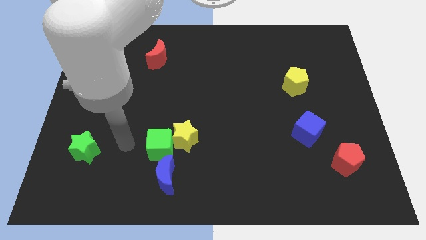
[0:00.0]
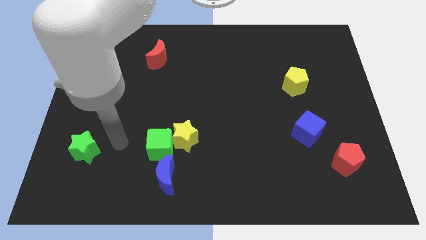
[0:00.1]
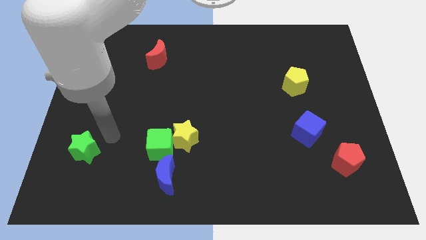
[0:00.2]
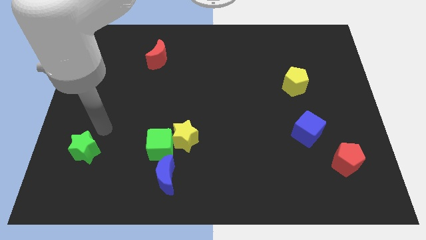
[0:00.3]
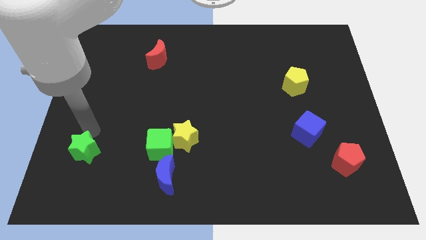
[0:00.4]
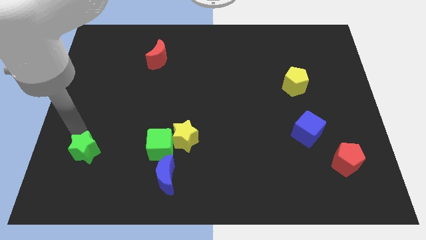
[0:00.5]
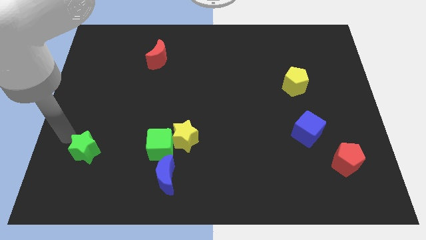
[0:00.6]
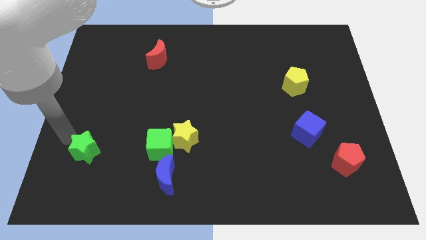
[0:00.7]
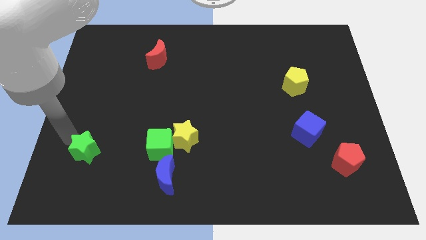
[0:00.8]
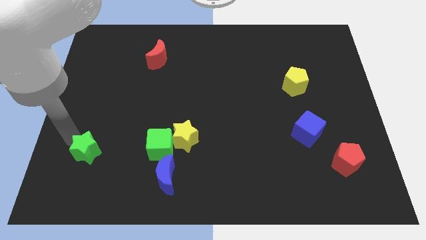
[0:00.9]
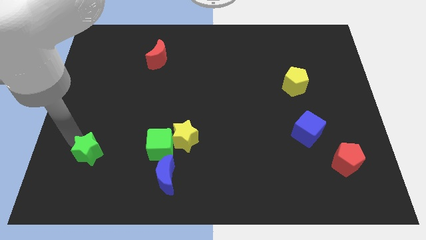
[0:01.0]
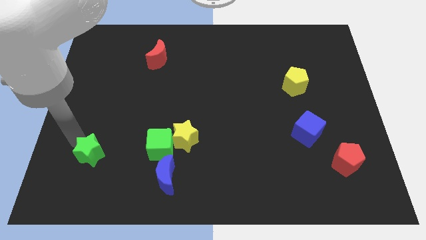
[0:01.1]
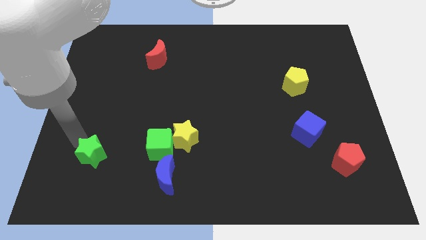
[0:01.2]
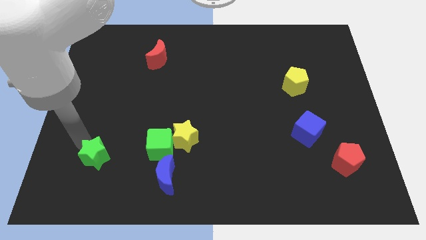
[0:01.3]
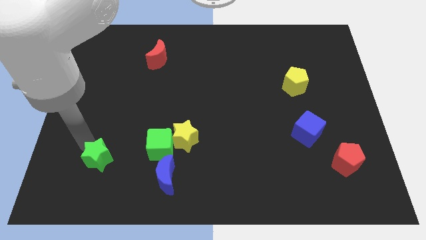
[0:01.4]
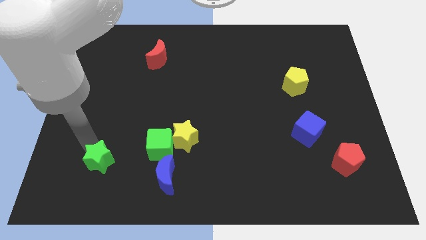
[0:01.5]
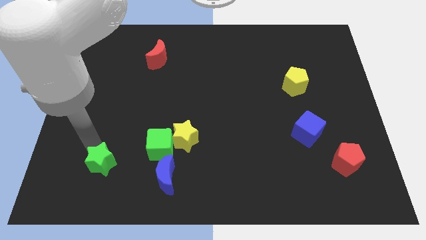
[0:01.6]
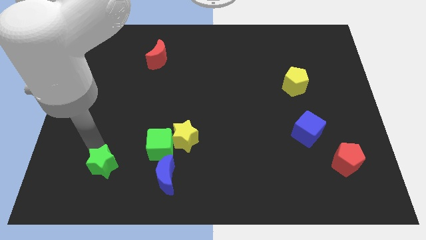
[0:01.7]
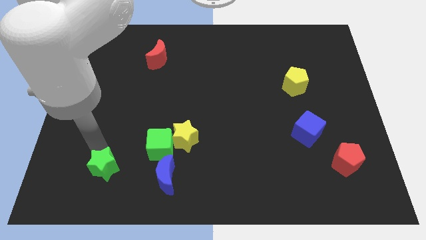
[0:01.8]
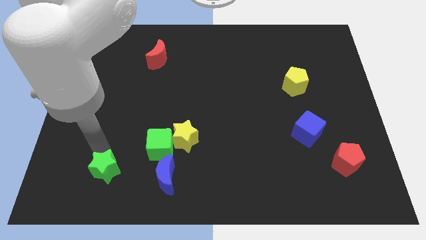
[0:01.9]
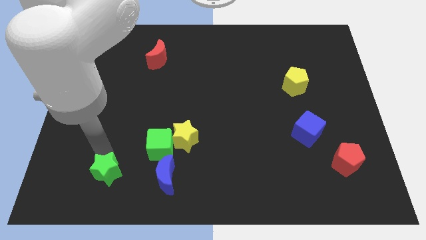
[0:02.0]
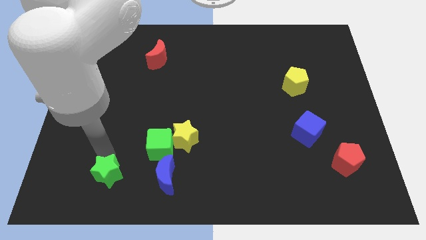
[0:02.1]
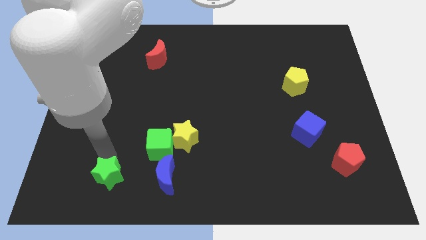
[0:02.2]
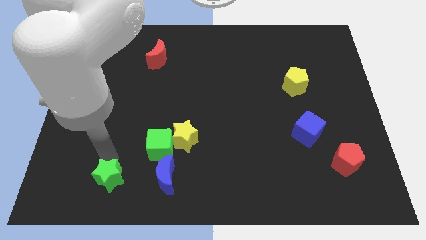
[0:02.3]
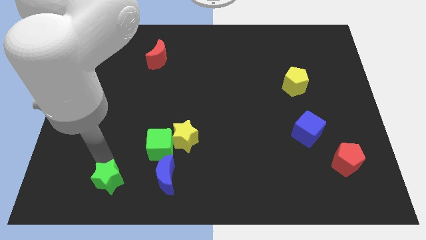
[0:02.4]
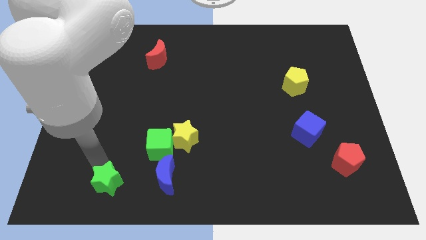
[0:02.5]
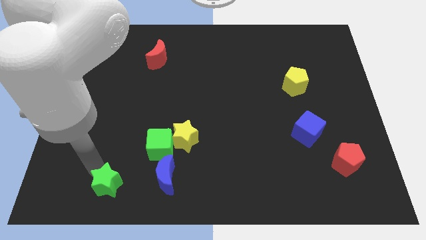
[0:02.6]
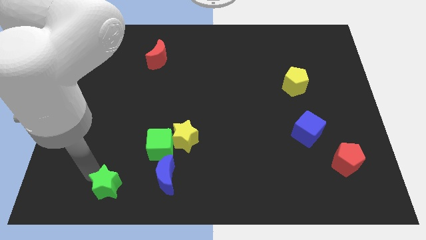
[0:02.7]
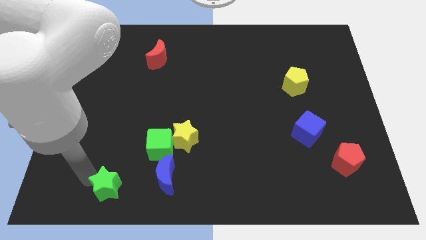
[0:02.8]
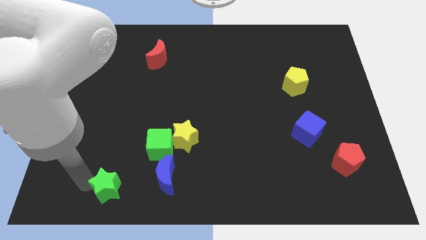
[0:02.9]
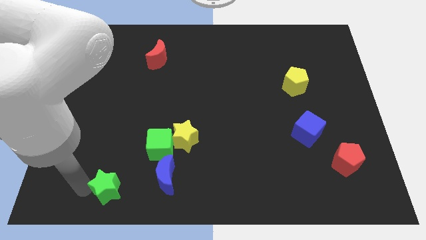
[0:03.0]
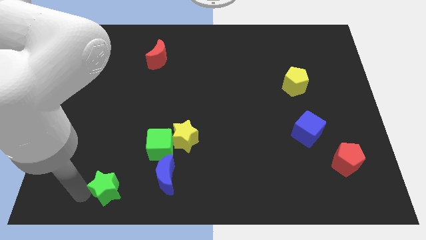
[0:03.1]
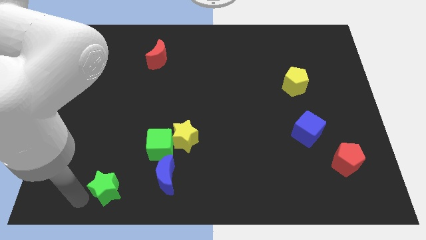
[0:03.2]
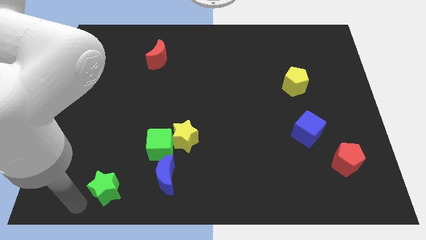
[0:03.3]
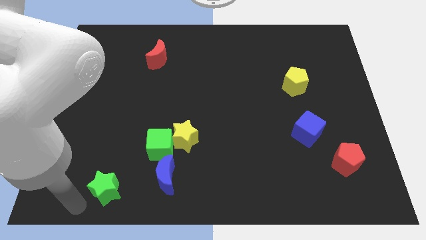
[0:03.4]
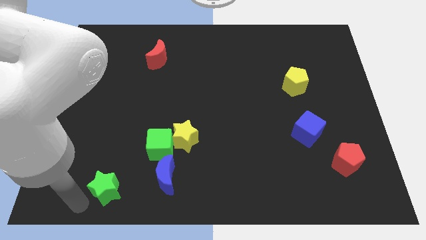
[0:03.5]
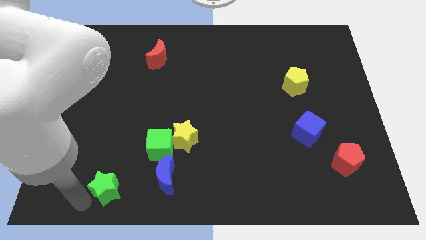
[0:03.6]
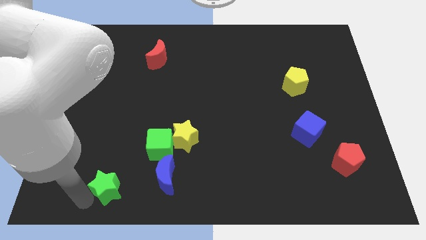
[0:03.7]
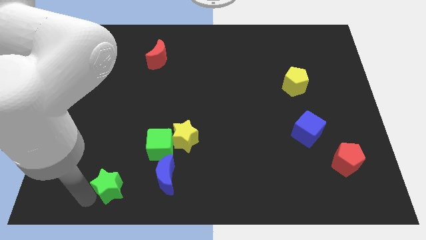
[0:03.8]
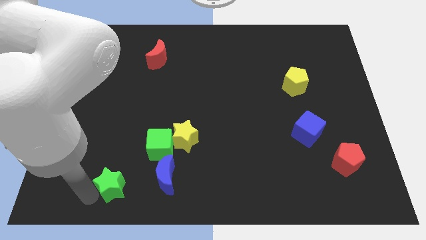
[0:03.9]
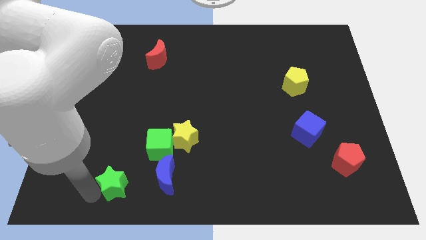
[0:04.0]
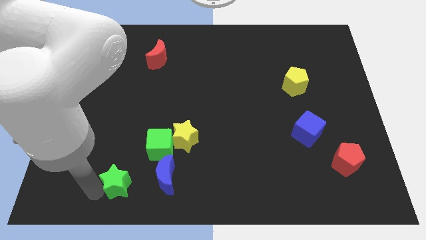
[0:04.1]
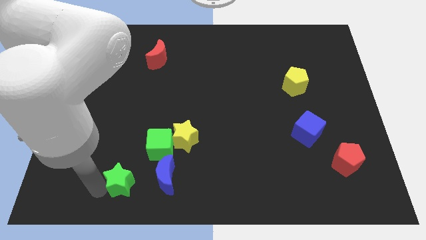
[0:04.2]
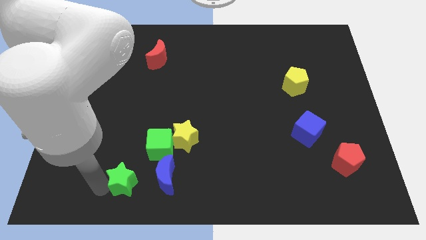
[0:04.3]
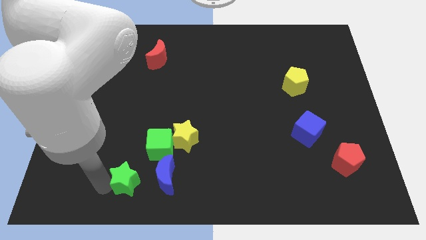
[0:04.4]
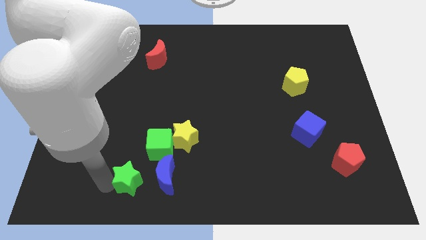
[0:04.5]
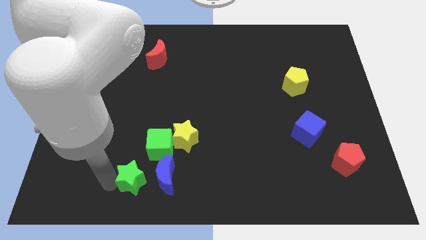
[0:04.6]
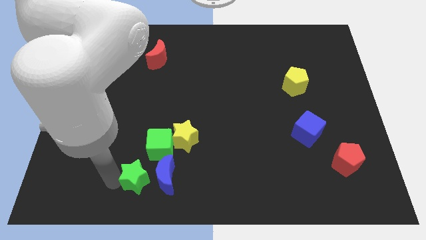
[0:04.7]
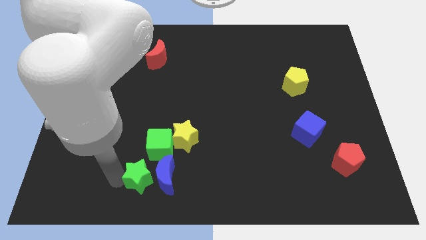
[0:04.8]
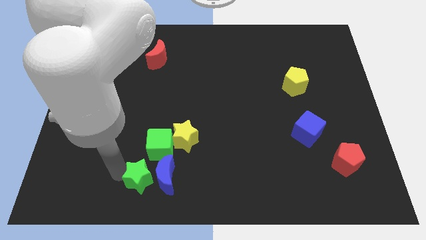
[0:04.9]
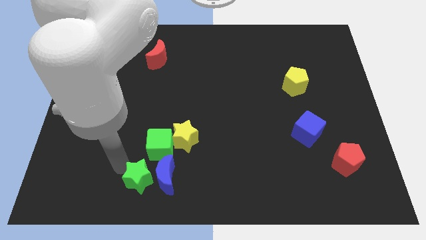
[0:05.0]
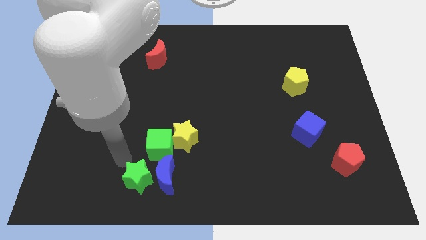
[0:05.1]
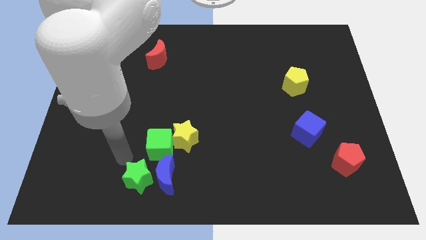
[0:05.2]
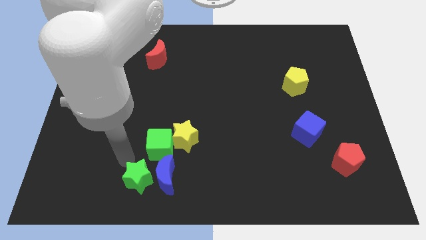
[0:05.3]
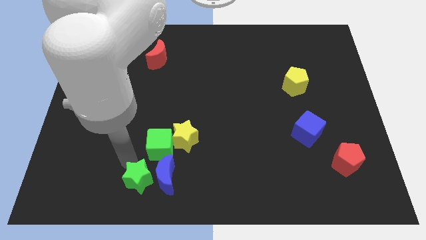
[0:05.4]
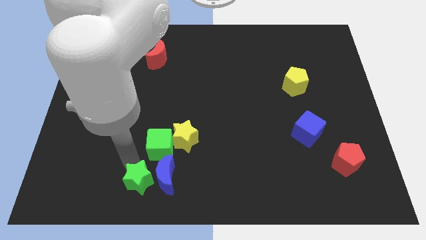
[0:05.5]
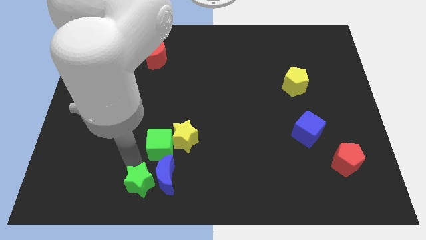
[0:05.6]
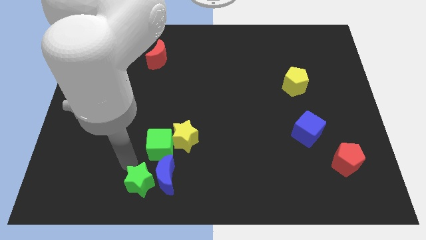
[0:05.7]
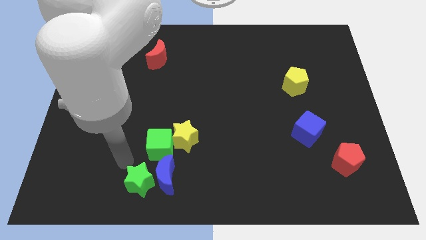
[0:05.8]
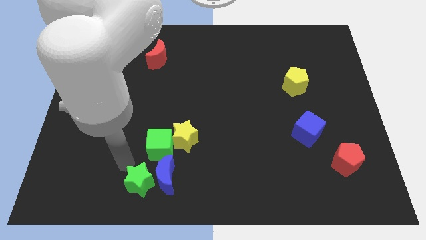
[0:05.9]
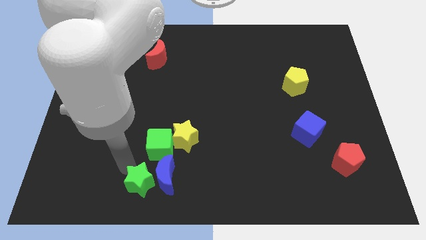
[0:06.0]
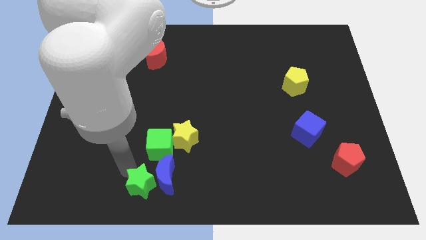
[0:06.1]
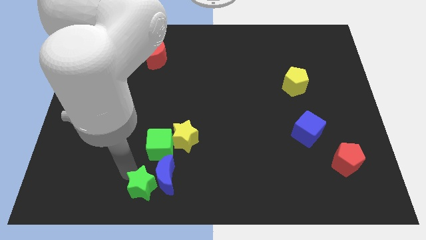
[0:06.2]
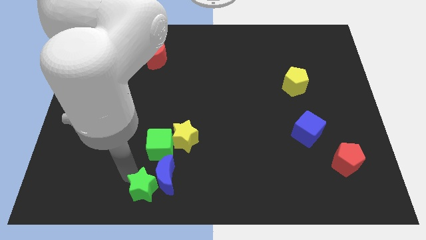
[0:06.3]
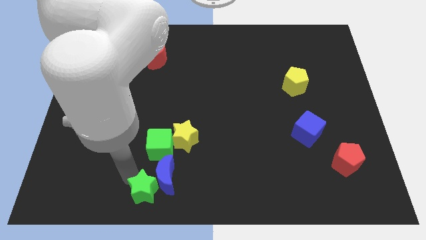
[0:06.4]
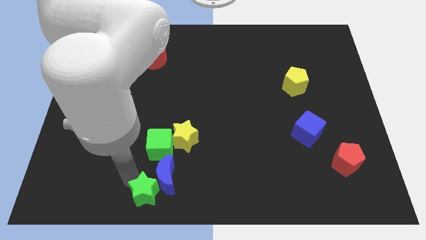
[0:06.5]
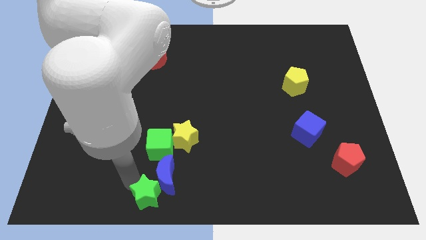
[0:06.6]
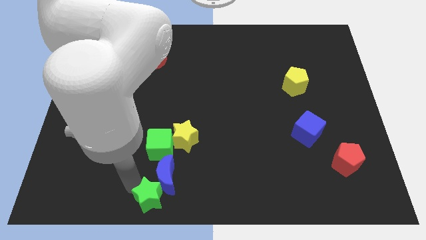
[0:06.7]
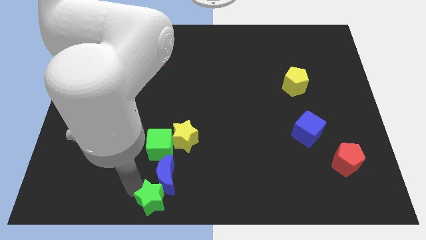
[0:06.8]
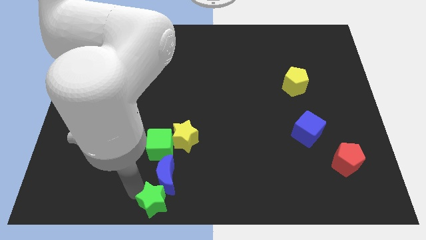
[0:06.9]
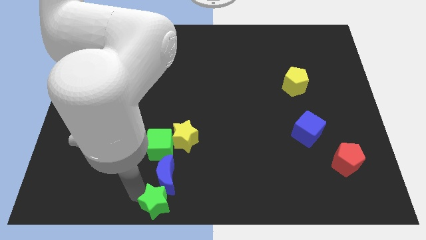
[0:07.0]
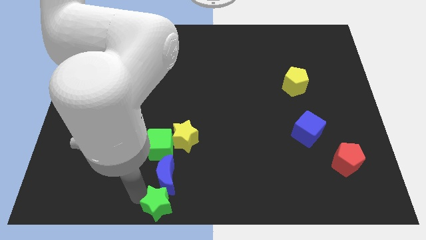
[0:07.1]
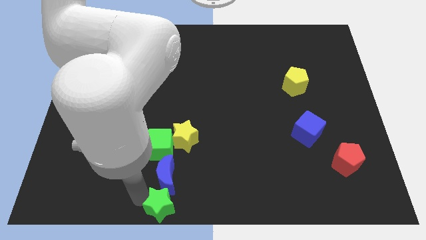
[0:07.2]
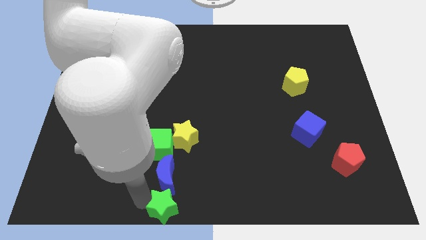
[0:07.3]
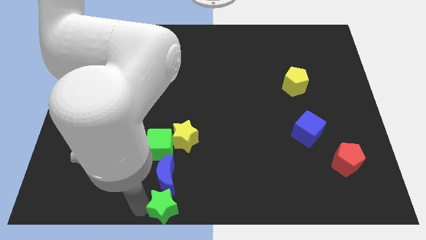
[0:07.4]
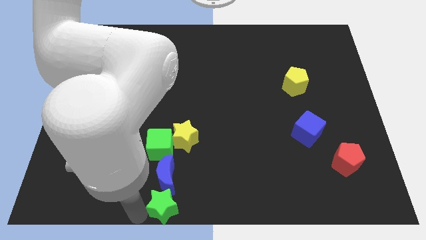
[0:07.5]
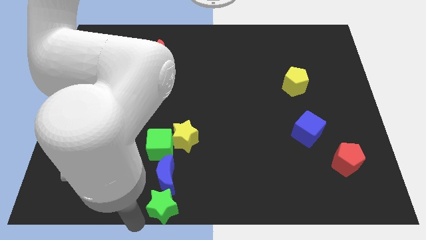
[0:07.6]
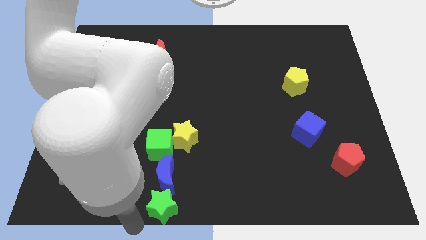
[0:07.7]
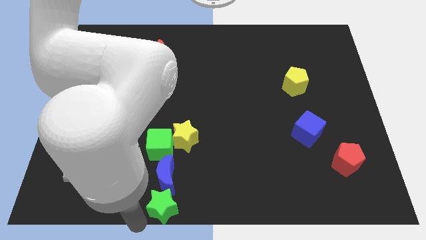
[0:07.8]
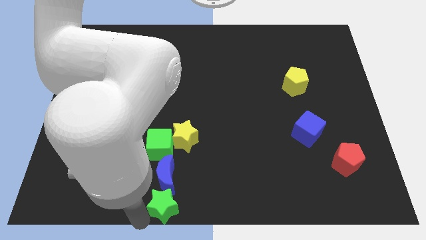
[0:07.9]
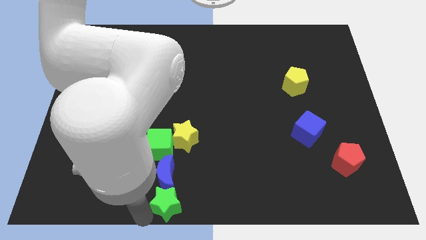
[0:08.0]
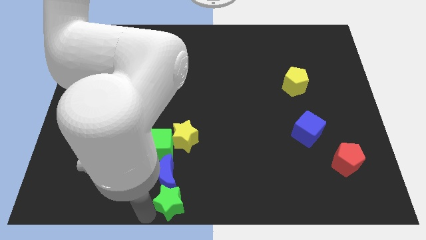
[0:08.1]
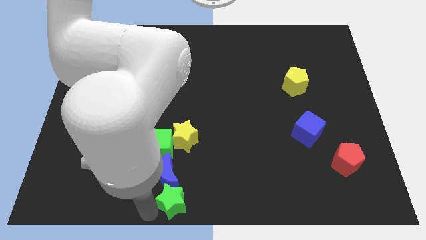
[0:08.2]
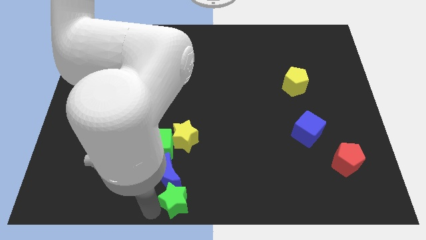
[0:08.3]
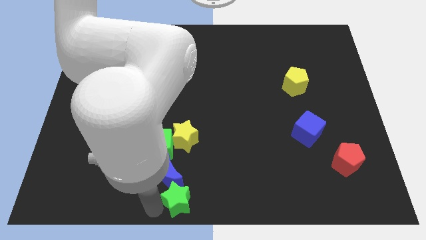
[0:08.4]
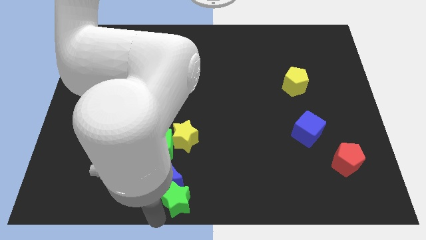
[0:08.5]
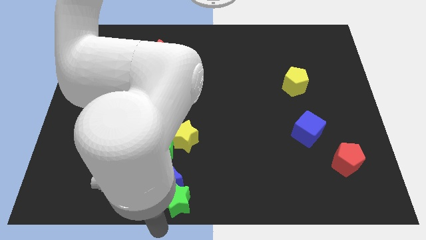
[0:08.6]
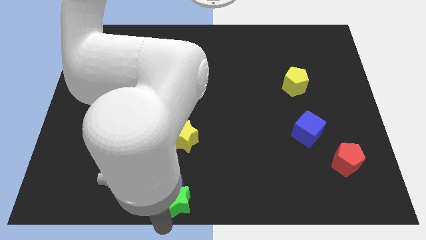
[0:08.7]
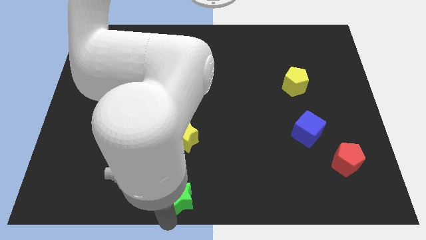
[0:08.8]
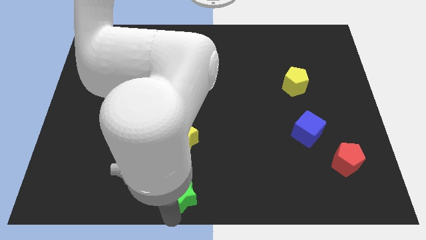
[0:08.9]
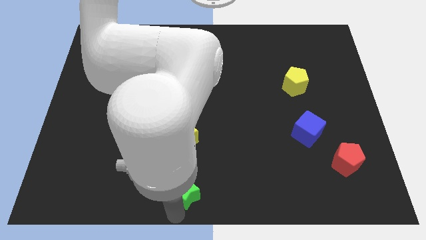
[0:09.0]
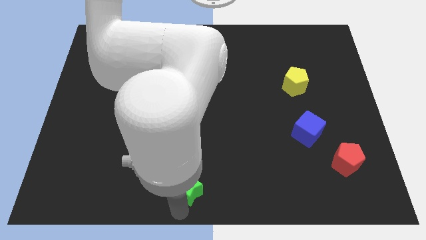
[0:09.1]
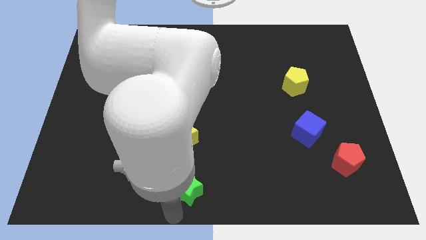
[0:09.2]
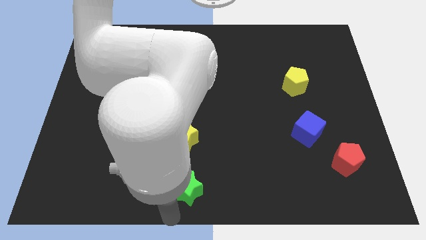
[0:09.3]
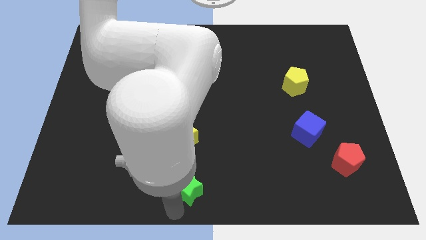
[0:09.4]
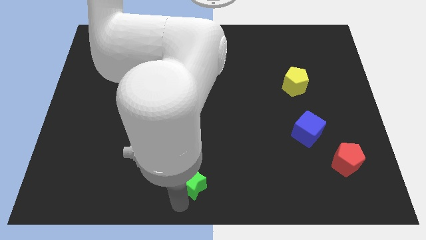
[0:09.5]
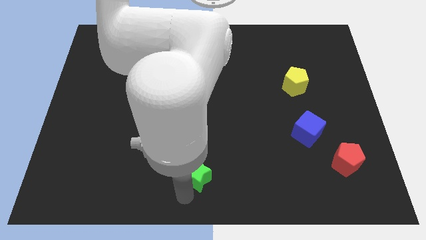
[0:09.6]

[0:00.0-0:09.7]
push the green star to the bottom right of the yellow star
